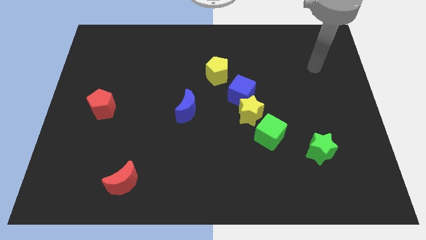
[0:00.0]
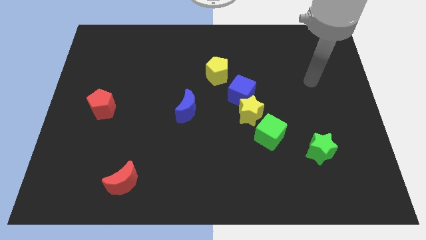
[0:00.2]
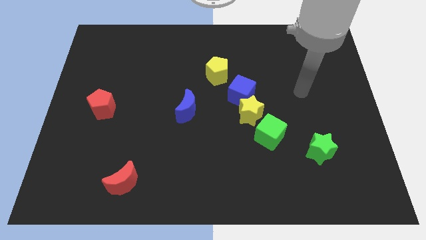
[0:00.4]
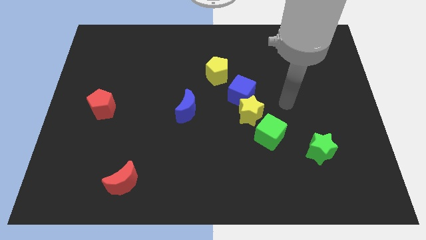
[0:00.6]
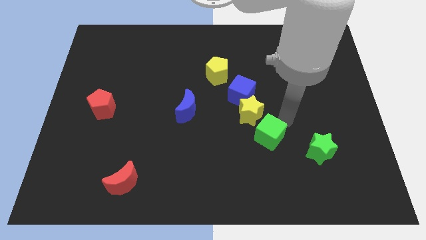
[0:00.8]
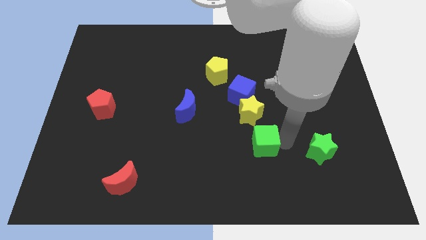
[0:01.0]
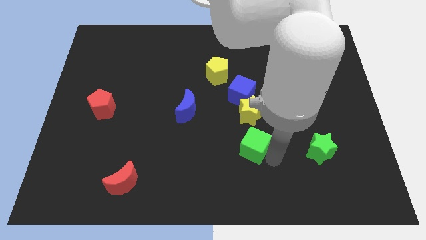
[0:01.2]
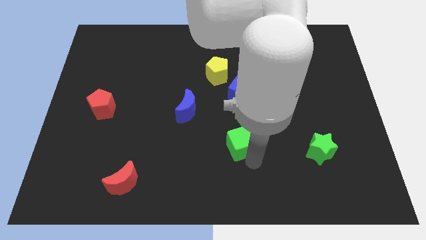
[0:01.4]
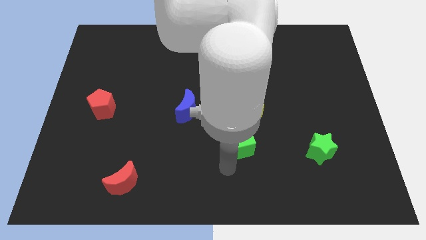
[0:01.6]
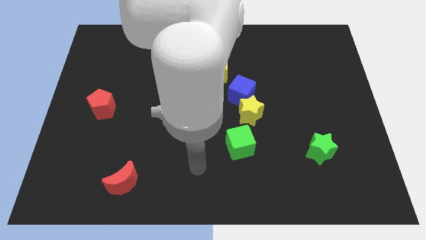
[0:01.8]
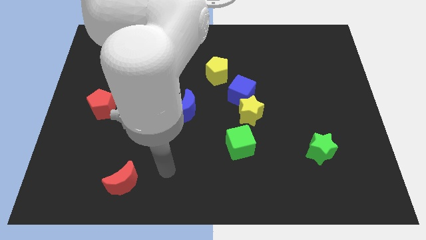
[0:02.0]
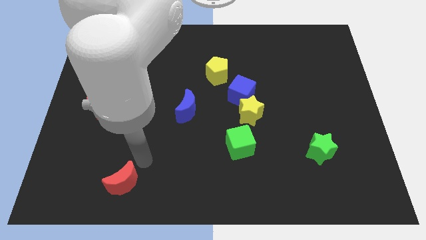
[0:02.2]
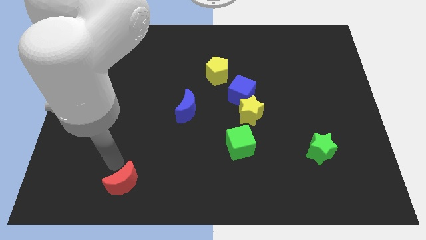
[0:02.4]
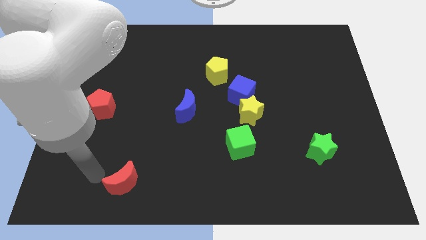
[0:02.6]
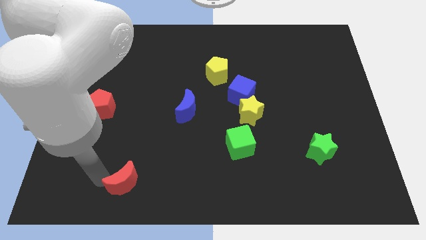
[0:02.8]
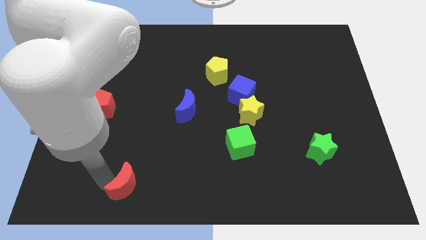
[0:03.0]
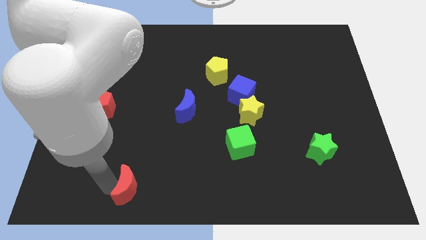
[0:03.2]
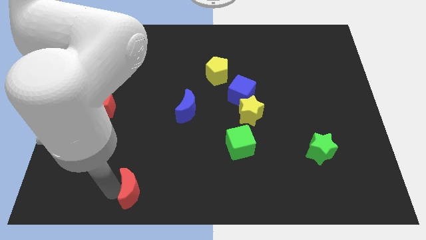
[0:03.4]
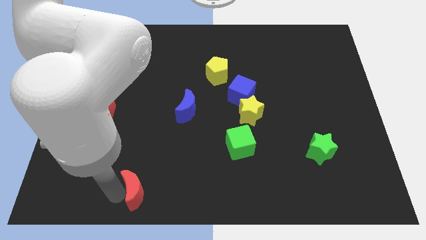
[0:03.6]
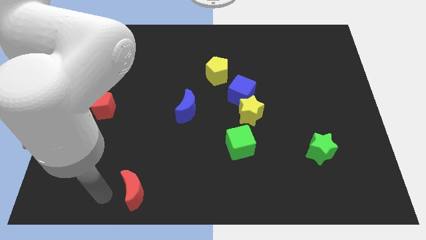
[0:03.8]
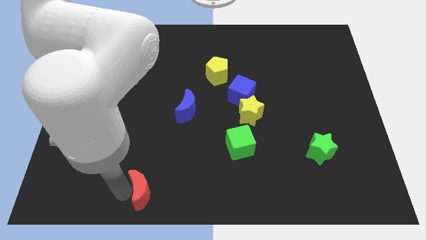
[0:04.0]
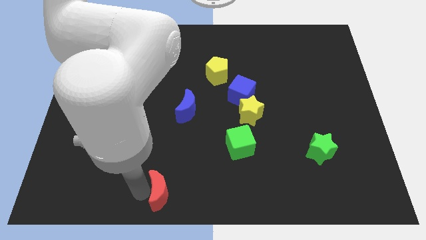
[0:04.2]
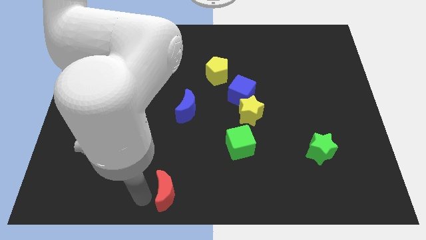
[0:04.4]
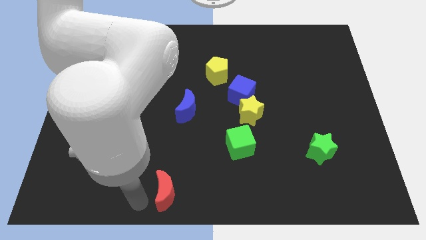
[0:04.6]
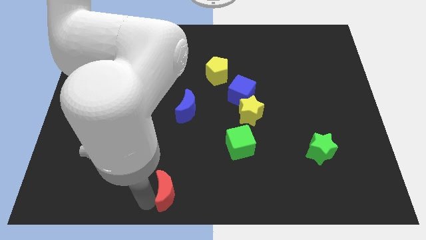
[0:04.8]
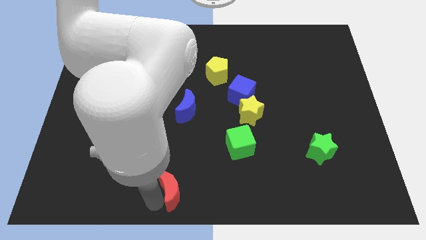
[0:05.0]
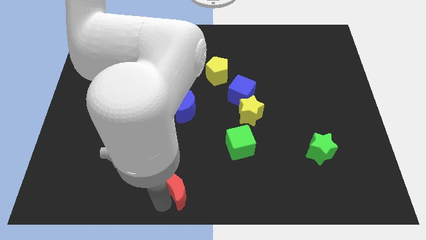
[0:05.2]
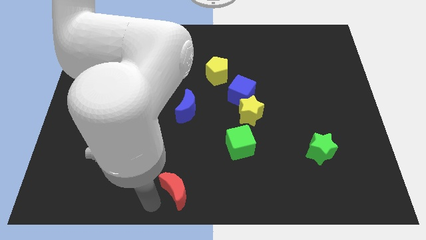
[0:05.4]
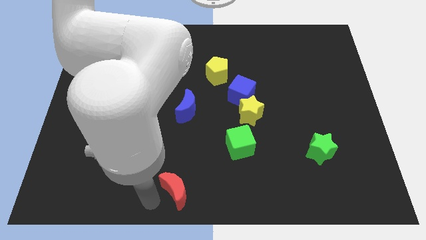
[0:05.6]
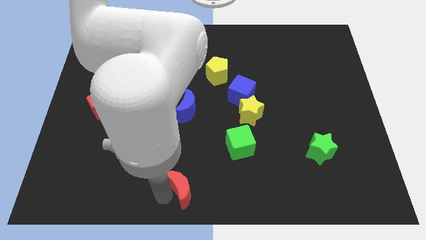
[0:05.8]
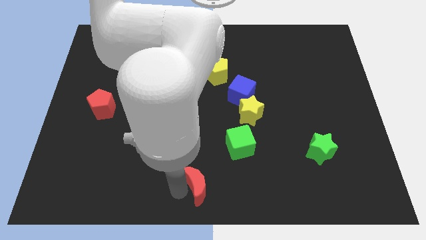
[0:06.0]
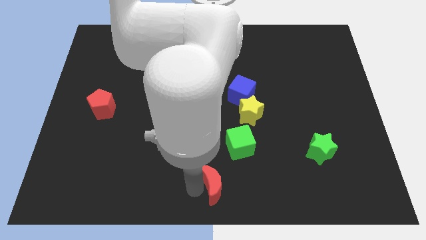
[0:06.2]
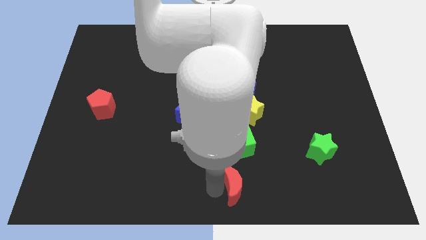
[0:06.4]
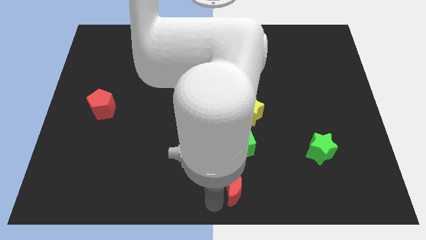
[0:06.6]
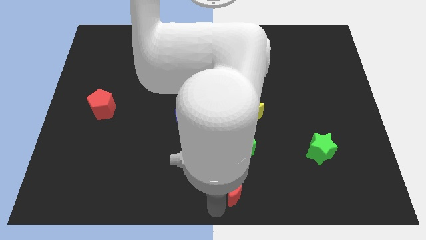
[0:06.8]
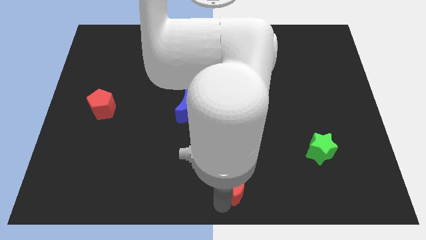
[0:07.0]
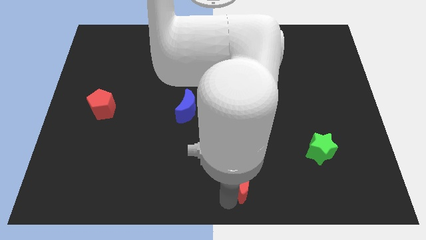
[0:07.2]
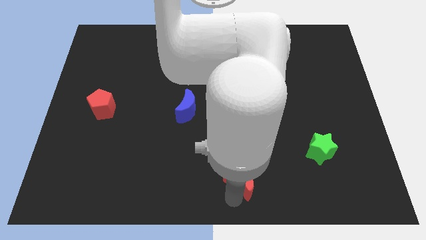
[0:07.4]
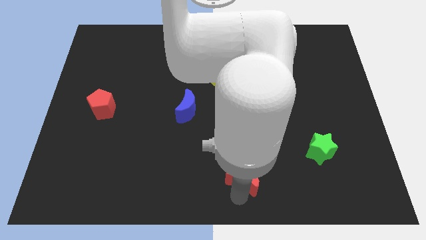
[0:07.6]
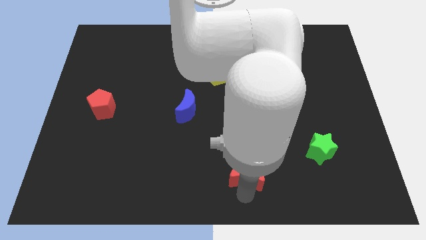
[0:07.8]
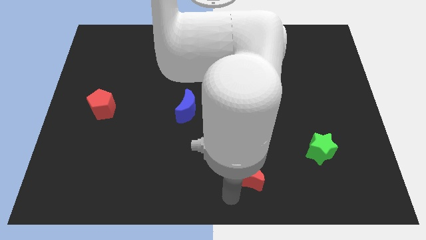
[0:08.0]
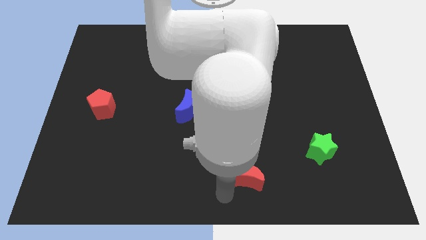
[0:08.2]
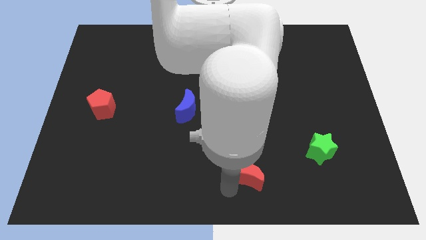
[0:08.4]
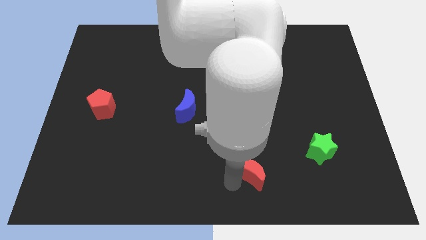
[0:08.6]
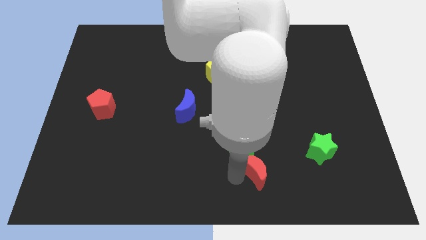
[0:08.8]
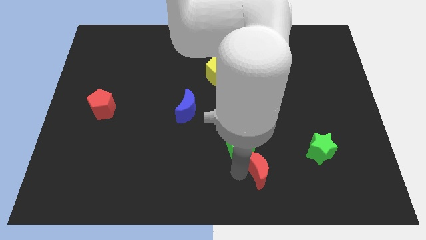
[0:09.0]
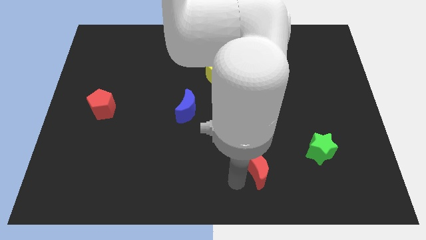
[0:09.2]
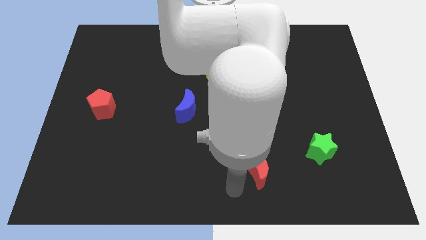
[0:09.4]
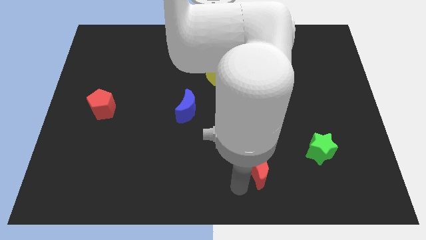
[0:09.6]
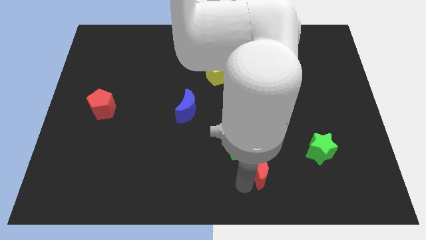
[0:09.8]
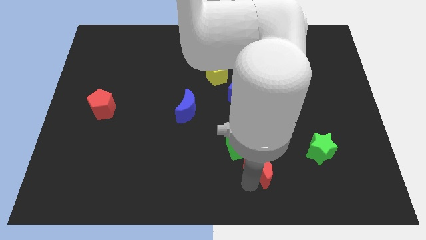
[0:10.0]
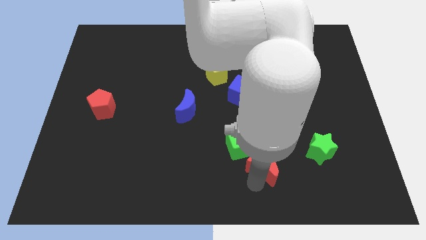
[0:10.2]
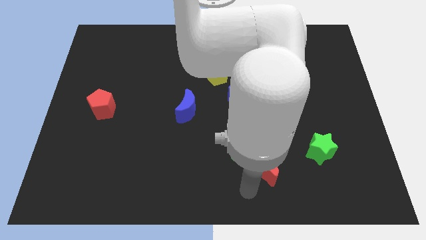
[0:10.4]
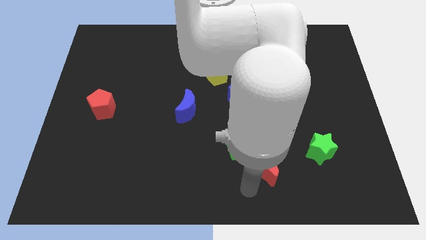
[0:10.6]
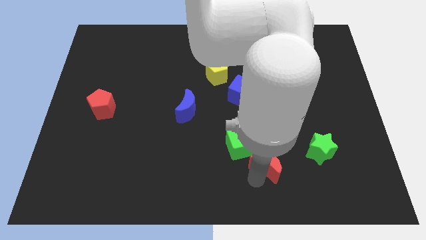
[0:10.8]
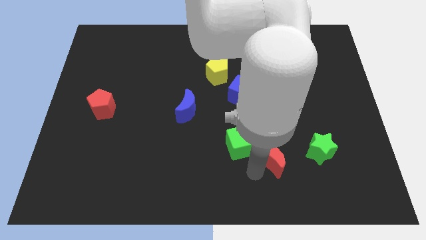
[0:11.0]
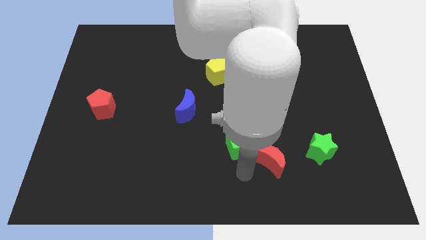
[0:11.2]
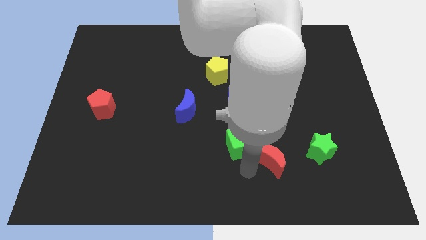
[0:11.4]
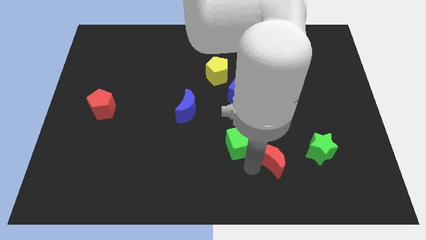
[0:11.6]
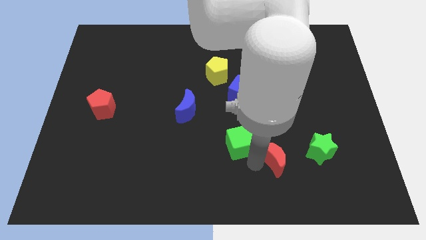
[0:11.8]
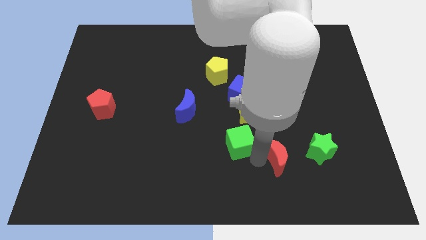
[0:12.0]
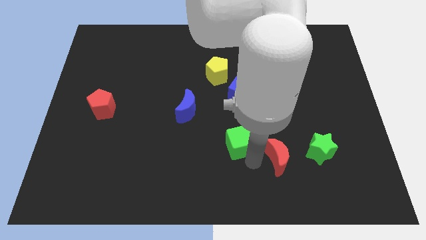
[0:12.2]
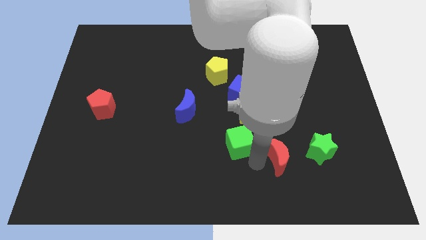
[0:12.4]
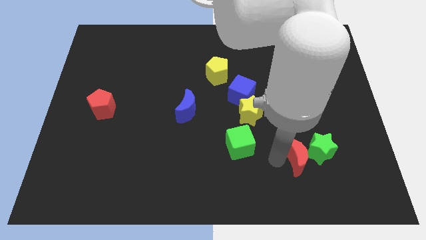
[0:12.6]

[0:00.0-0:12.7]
move the red moon to the green star

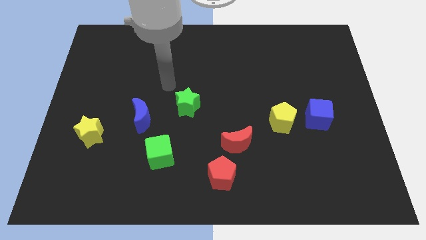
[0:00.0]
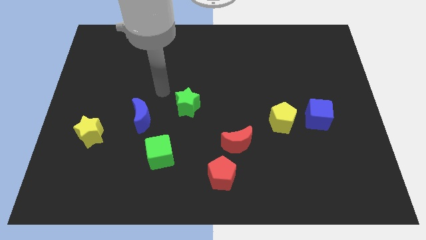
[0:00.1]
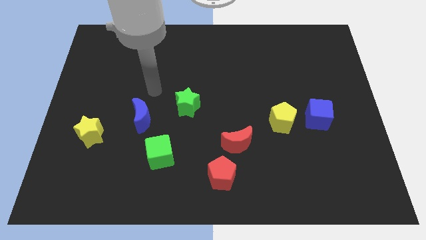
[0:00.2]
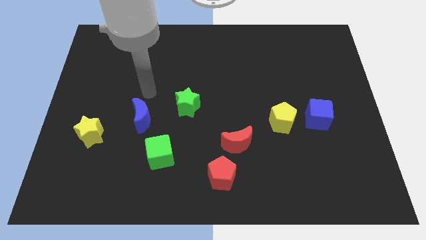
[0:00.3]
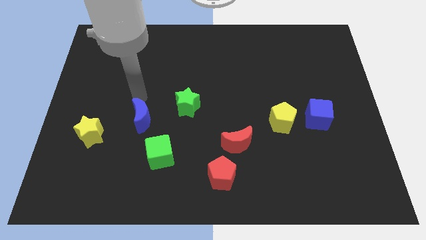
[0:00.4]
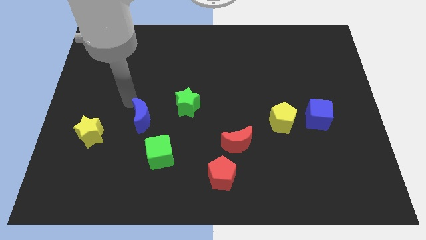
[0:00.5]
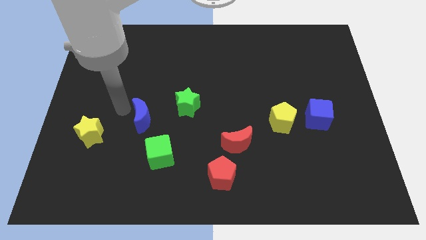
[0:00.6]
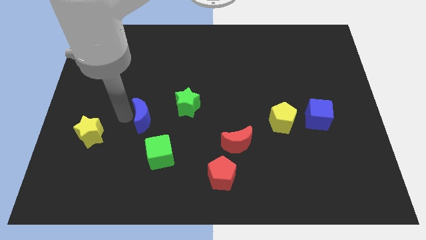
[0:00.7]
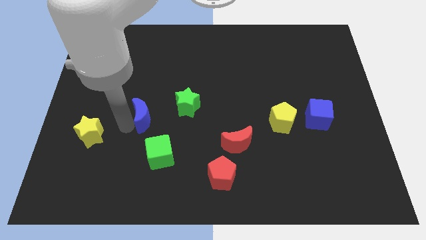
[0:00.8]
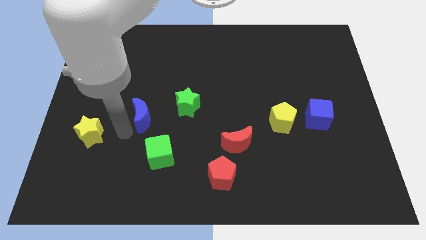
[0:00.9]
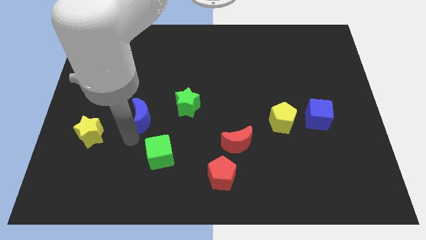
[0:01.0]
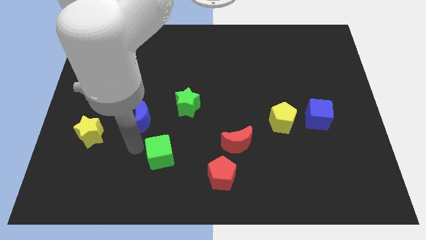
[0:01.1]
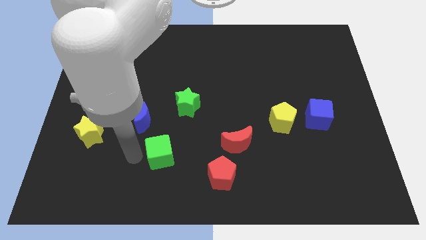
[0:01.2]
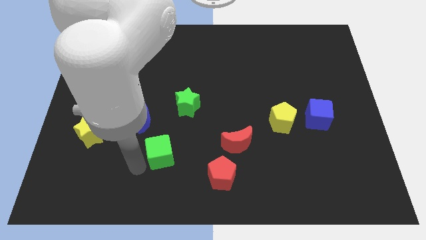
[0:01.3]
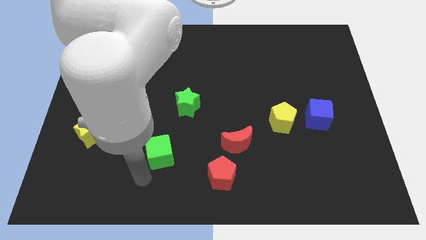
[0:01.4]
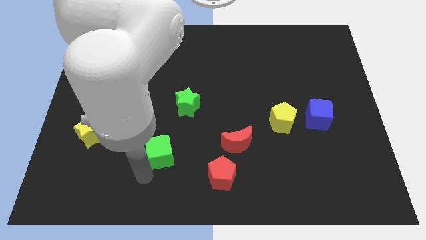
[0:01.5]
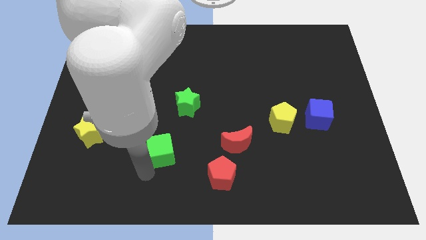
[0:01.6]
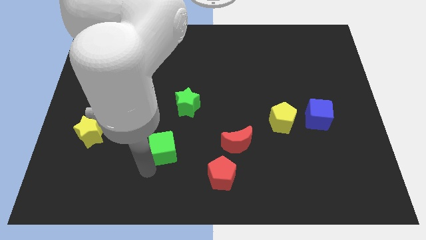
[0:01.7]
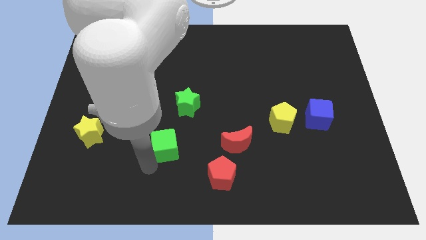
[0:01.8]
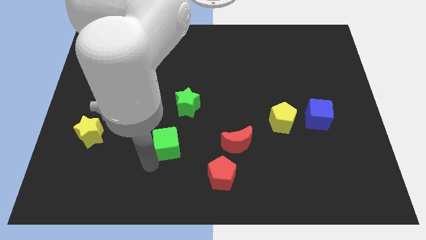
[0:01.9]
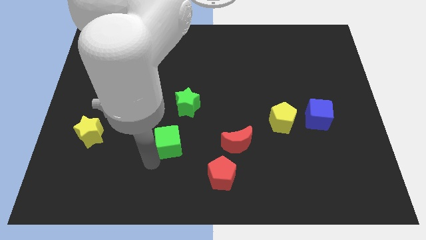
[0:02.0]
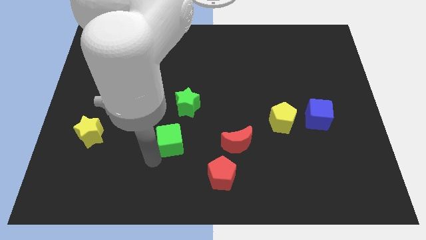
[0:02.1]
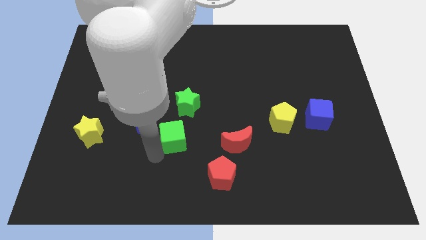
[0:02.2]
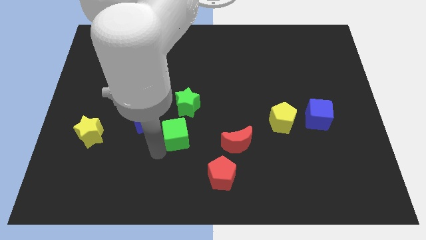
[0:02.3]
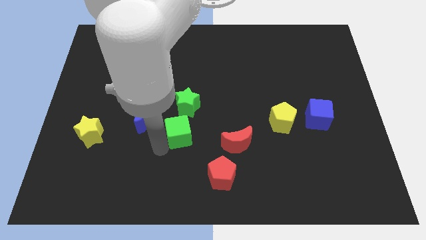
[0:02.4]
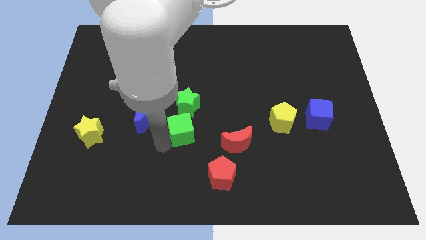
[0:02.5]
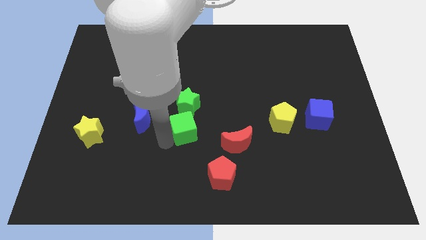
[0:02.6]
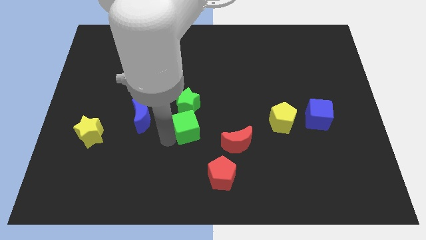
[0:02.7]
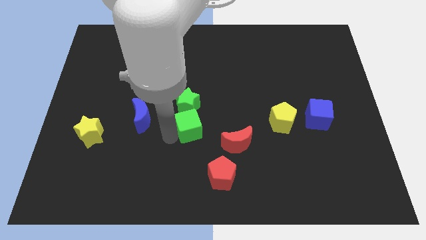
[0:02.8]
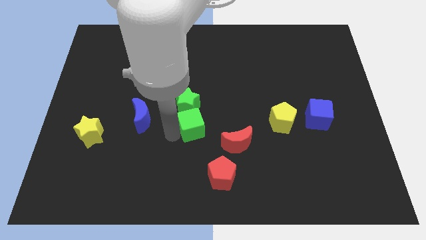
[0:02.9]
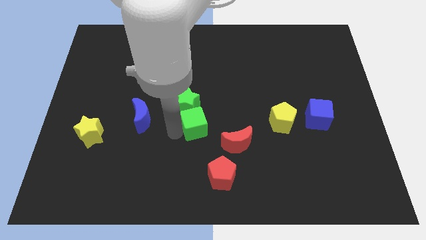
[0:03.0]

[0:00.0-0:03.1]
put the green cube towards the green star
